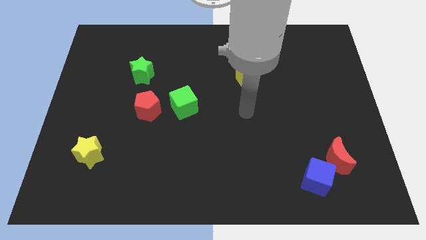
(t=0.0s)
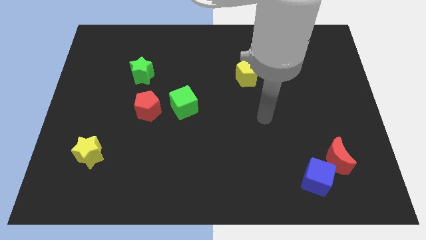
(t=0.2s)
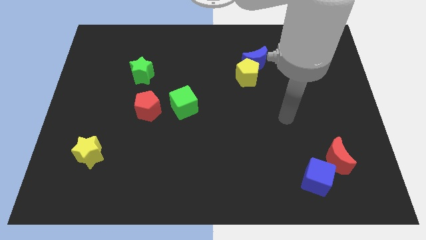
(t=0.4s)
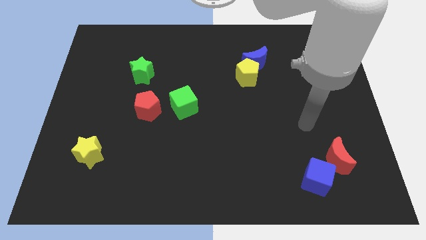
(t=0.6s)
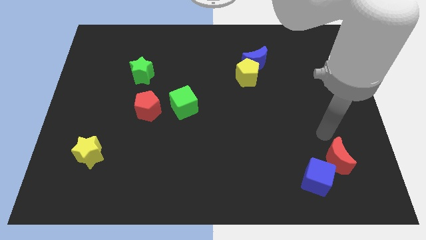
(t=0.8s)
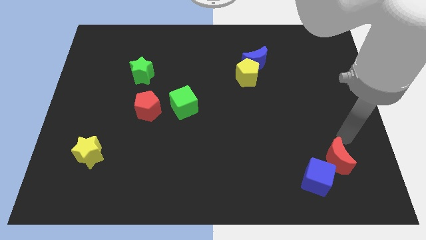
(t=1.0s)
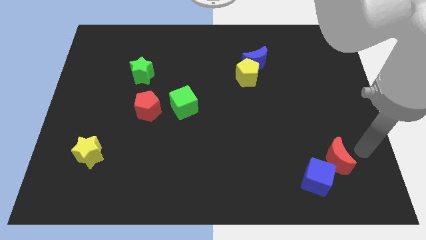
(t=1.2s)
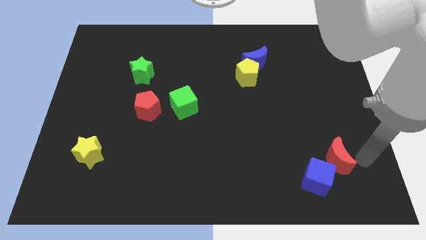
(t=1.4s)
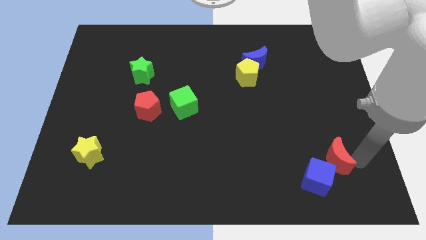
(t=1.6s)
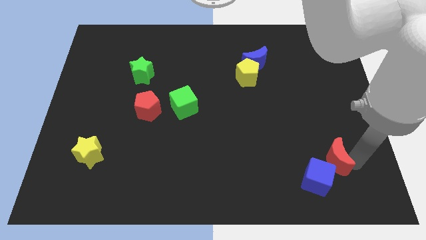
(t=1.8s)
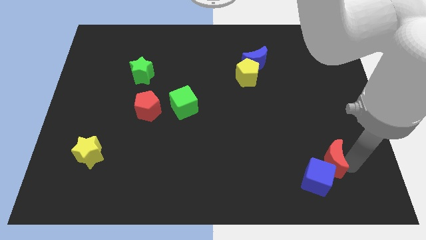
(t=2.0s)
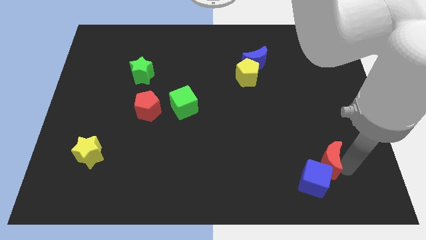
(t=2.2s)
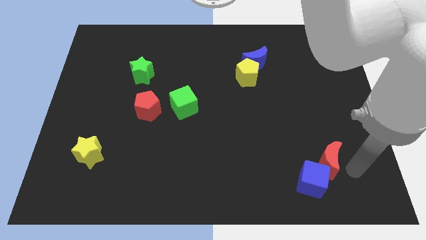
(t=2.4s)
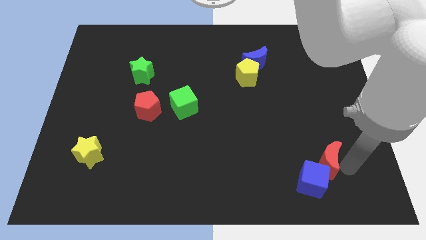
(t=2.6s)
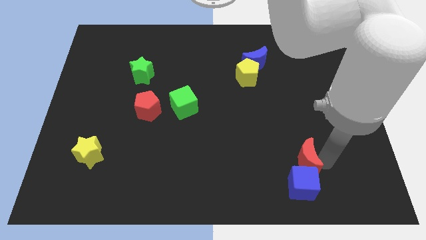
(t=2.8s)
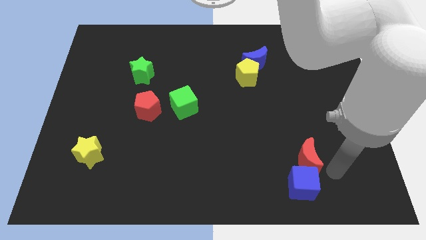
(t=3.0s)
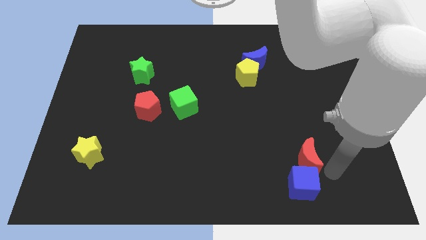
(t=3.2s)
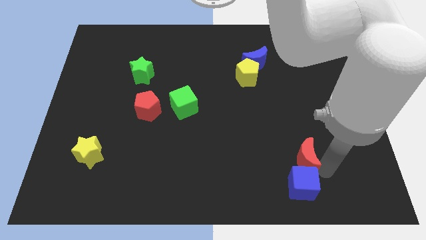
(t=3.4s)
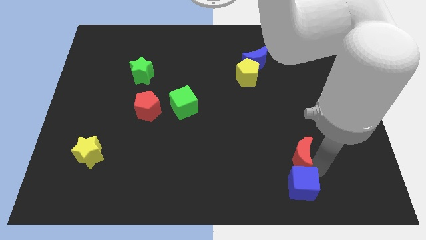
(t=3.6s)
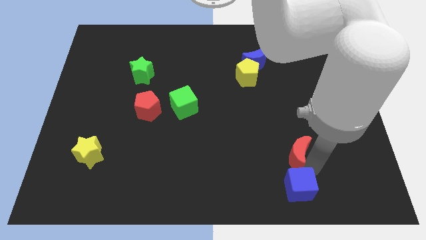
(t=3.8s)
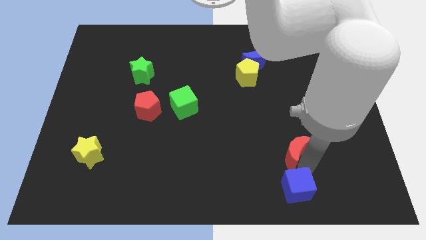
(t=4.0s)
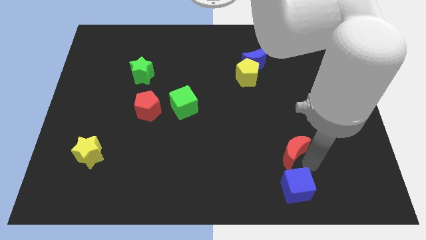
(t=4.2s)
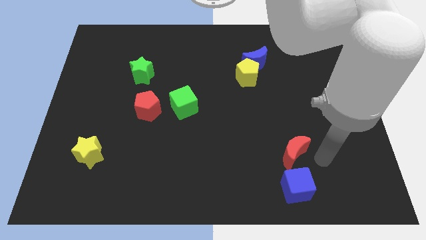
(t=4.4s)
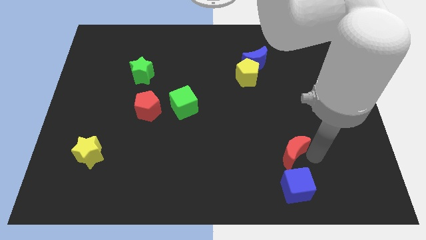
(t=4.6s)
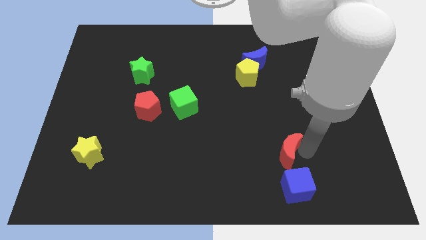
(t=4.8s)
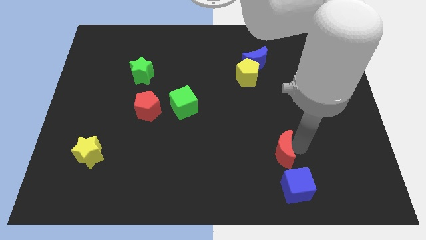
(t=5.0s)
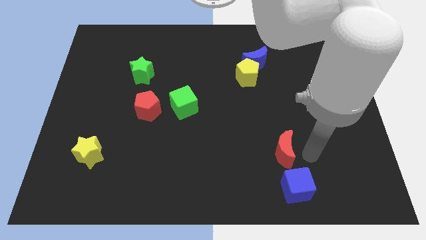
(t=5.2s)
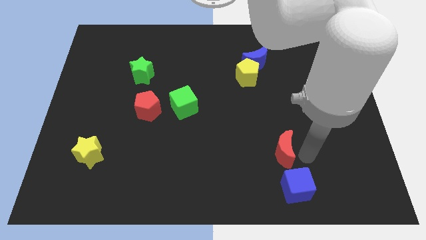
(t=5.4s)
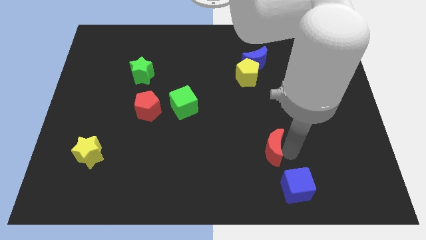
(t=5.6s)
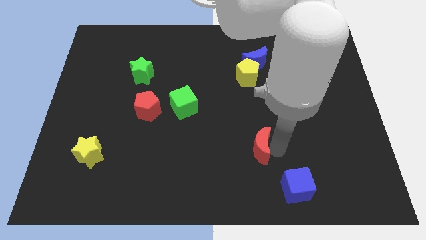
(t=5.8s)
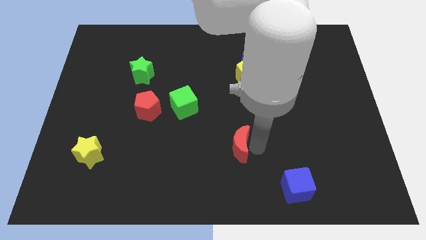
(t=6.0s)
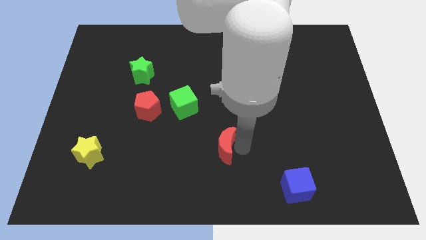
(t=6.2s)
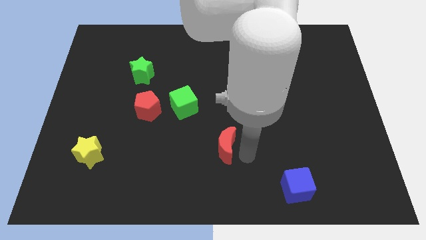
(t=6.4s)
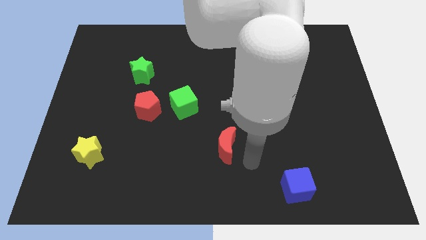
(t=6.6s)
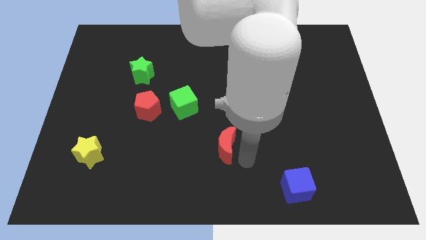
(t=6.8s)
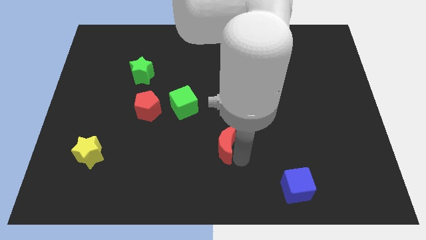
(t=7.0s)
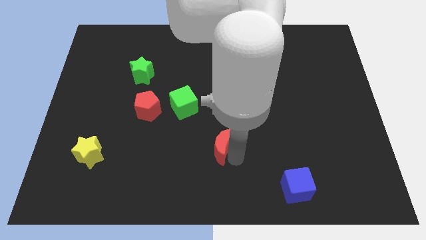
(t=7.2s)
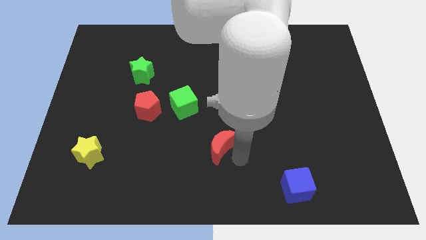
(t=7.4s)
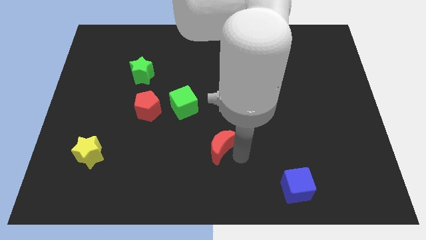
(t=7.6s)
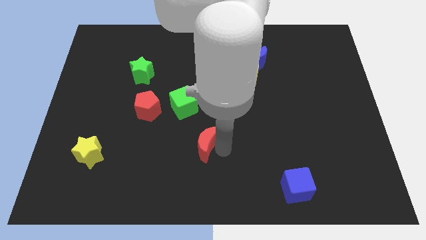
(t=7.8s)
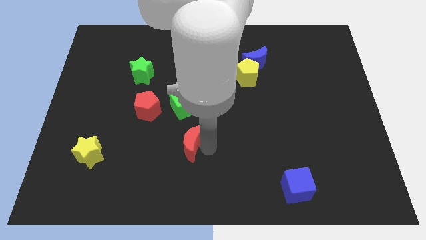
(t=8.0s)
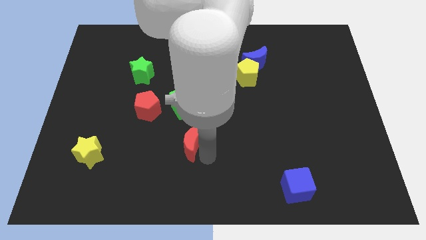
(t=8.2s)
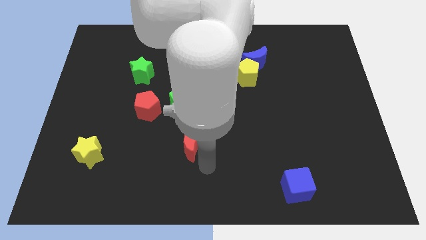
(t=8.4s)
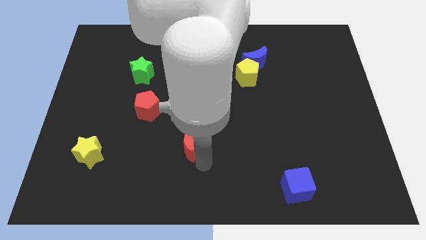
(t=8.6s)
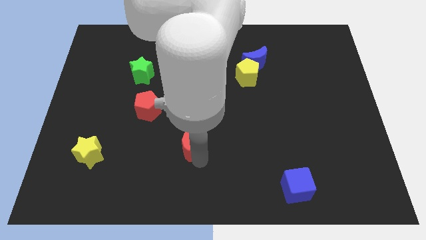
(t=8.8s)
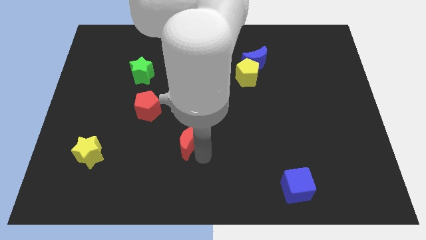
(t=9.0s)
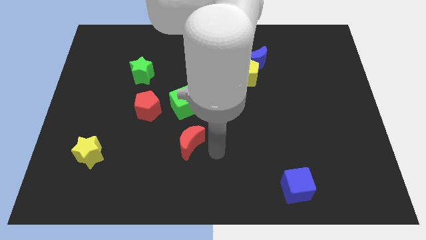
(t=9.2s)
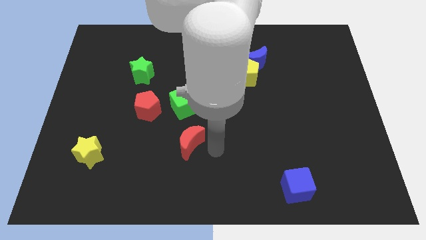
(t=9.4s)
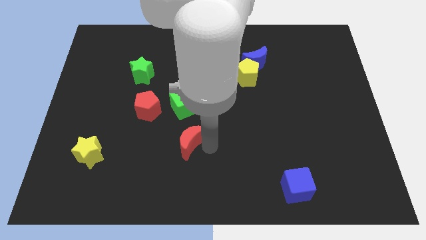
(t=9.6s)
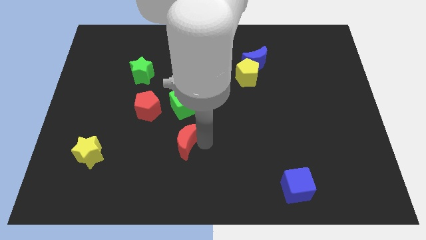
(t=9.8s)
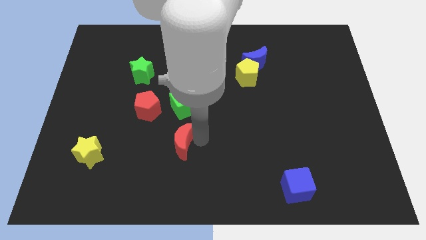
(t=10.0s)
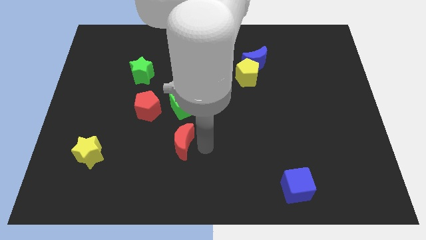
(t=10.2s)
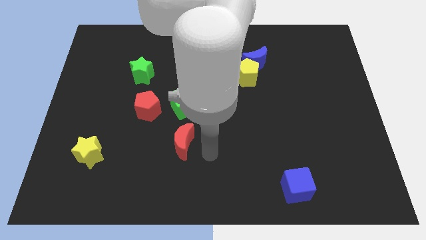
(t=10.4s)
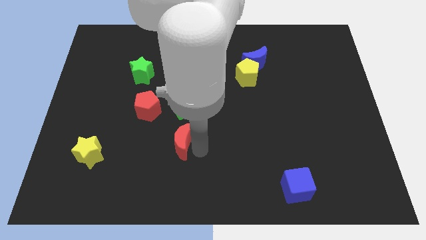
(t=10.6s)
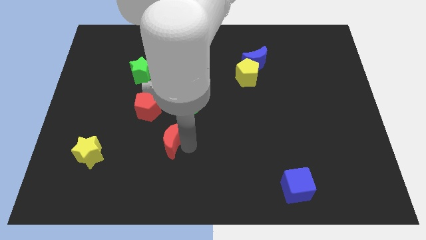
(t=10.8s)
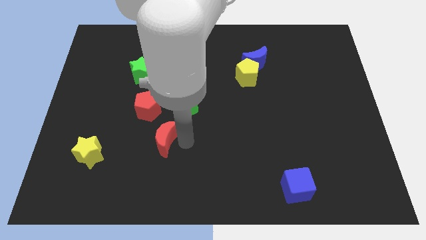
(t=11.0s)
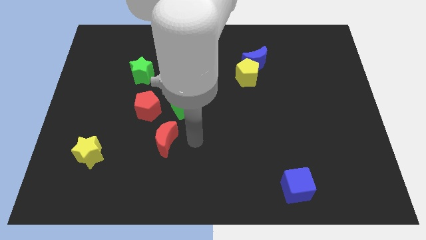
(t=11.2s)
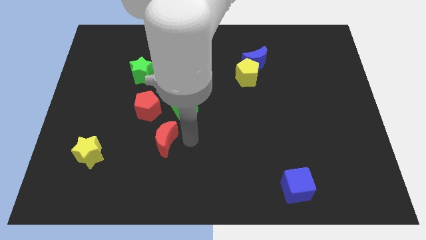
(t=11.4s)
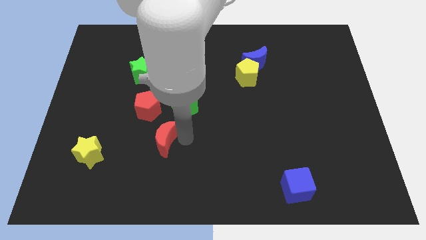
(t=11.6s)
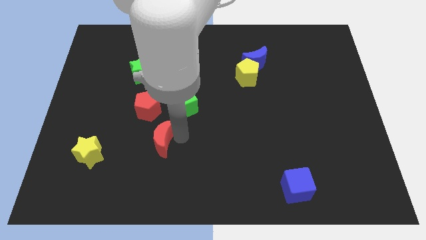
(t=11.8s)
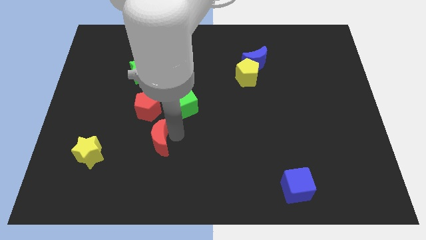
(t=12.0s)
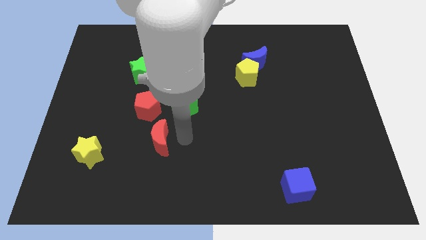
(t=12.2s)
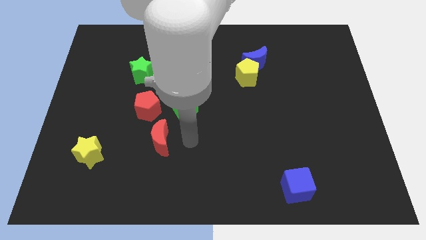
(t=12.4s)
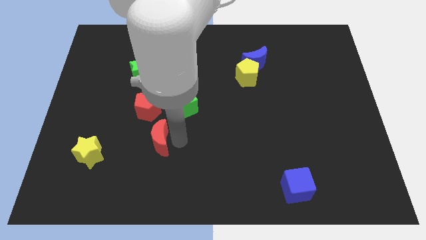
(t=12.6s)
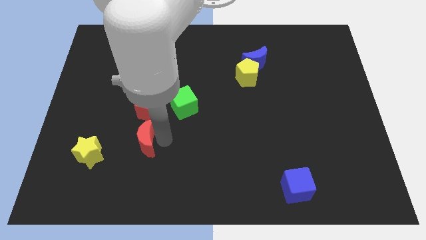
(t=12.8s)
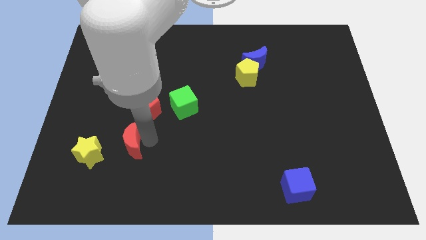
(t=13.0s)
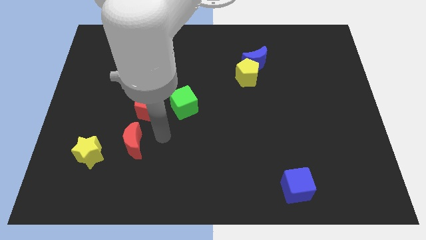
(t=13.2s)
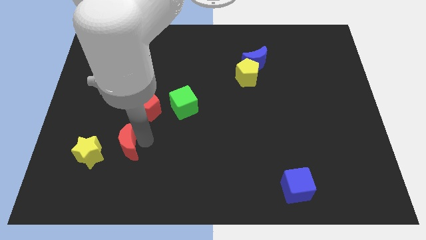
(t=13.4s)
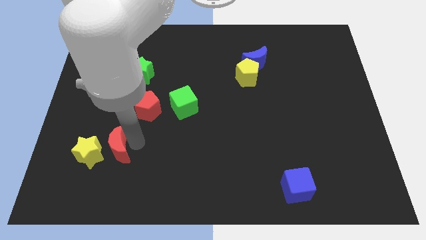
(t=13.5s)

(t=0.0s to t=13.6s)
move the red moon close to the yellow star

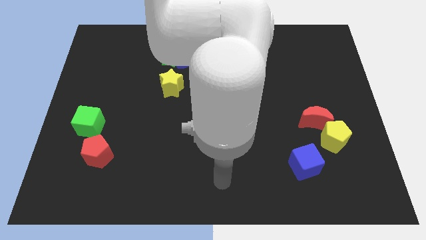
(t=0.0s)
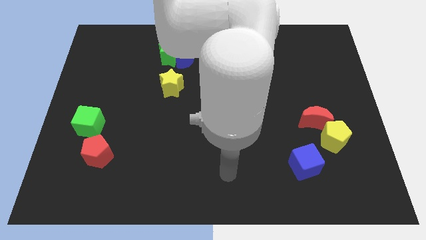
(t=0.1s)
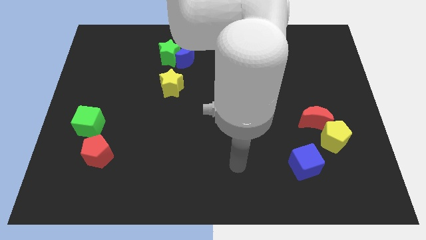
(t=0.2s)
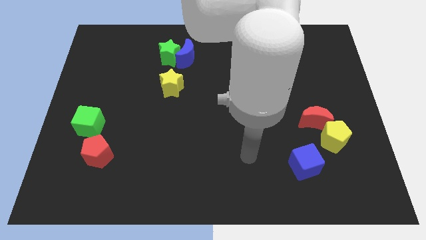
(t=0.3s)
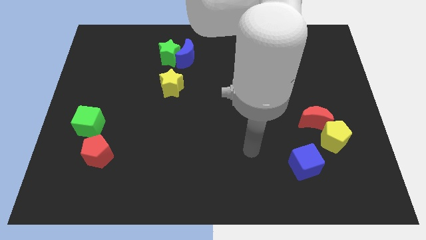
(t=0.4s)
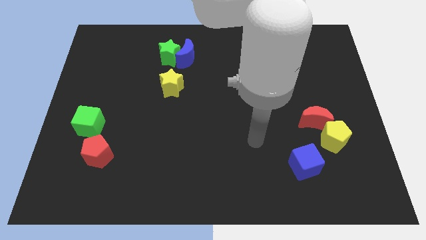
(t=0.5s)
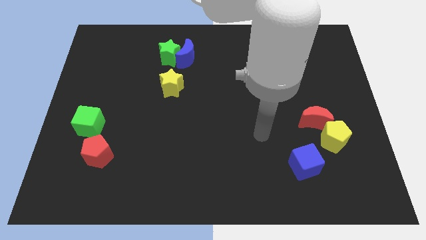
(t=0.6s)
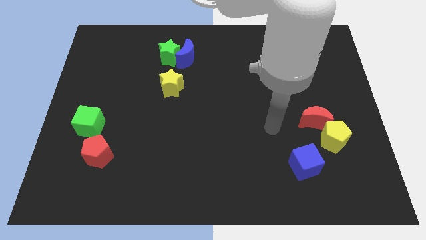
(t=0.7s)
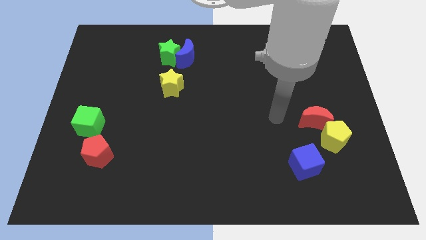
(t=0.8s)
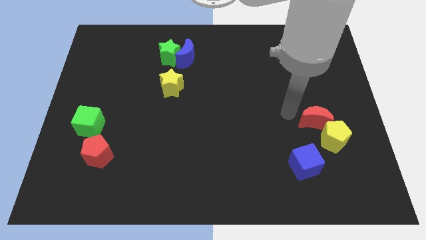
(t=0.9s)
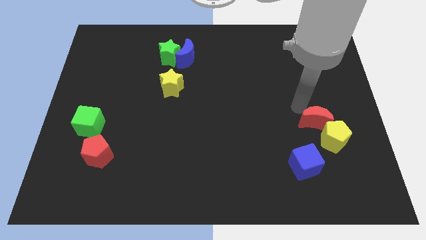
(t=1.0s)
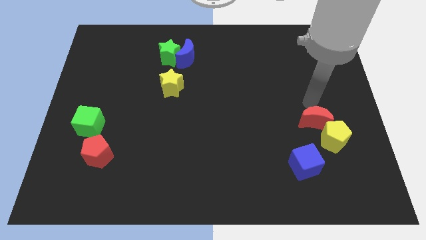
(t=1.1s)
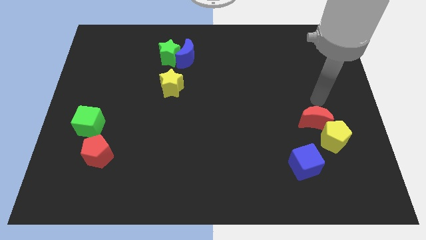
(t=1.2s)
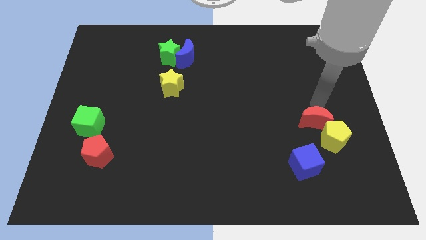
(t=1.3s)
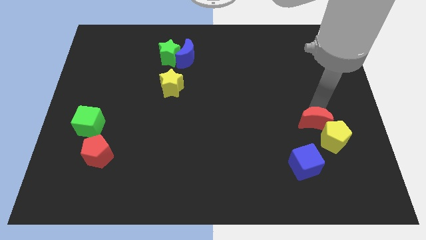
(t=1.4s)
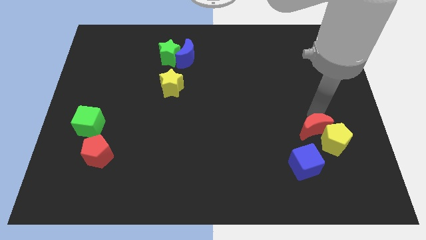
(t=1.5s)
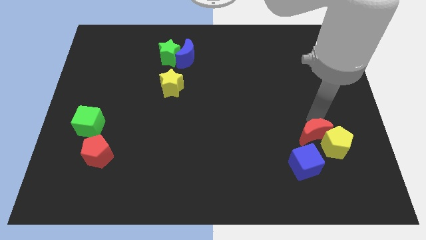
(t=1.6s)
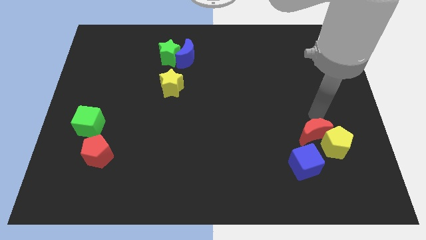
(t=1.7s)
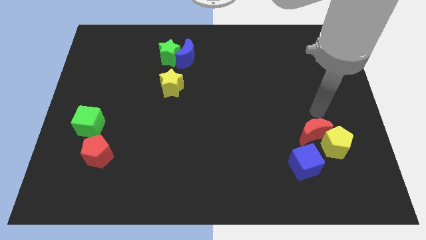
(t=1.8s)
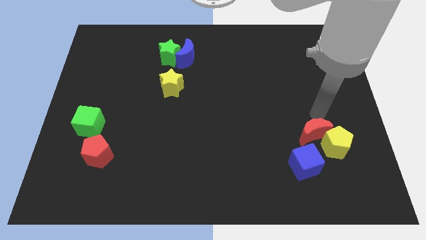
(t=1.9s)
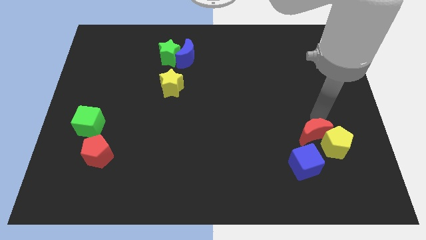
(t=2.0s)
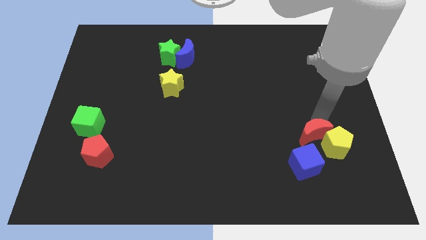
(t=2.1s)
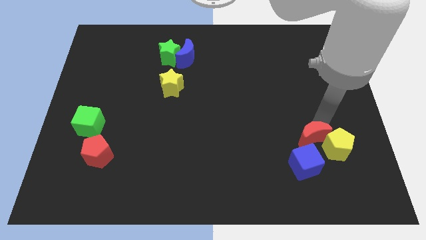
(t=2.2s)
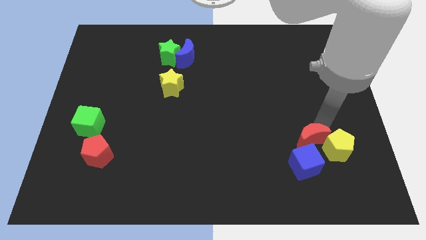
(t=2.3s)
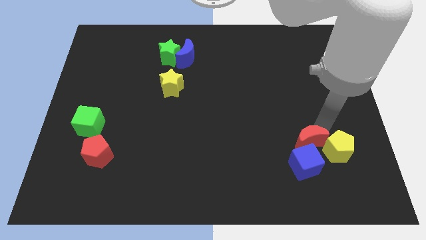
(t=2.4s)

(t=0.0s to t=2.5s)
push the red moon to the blue cube
